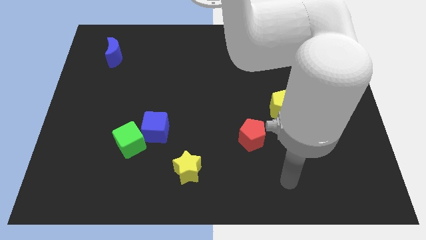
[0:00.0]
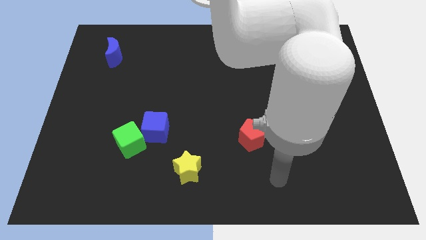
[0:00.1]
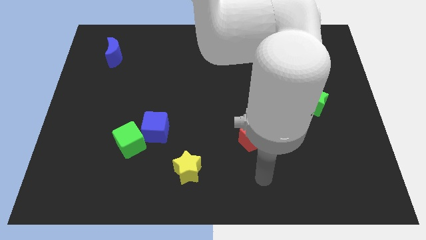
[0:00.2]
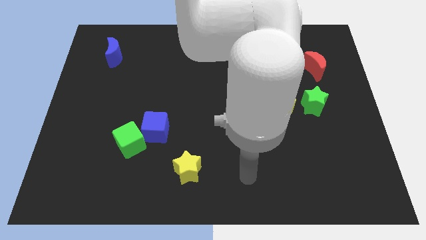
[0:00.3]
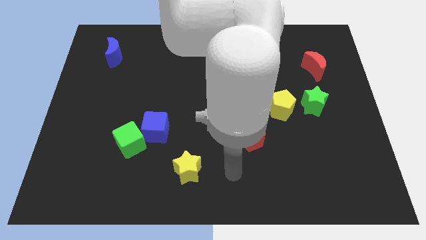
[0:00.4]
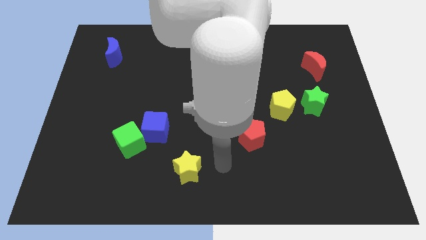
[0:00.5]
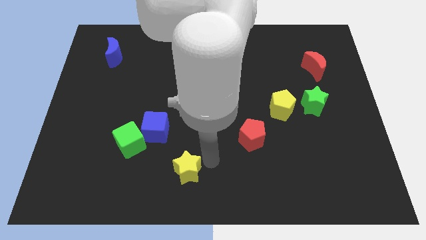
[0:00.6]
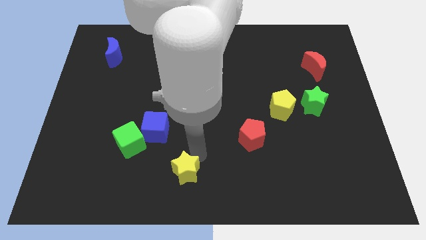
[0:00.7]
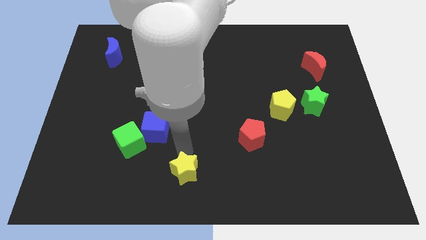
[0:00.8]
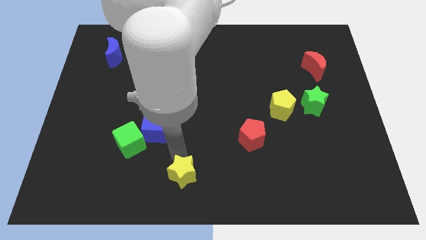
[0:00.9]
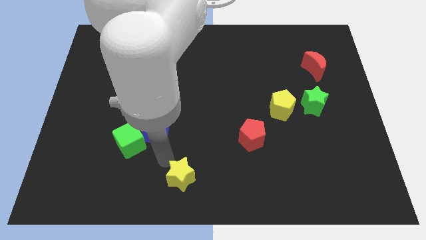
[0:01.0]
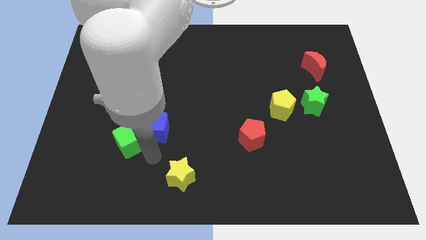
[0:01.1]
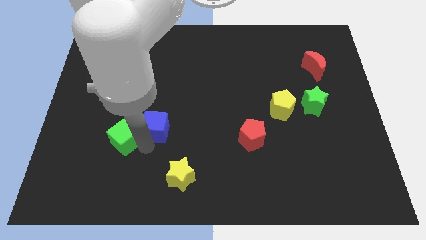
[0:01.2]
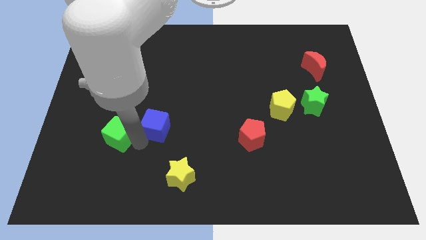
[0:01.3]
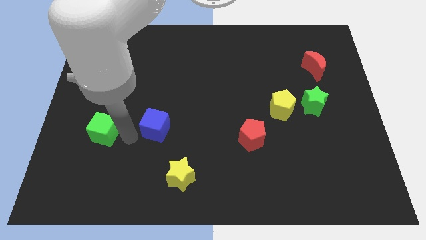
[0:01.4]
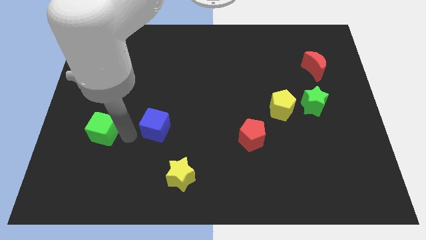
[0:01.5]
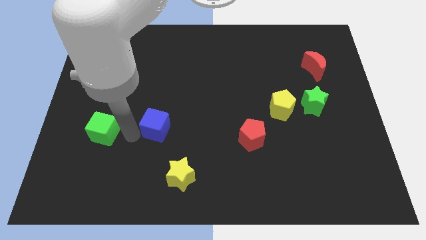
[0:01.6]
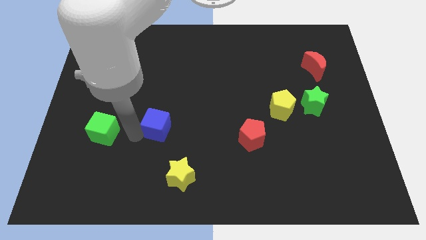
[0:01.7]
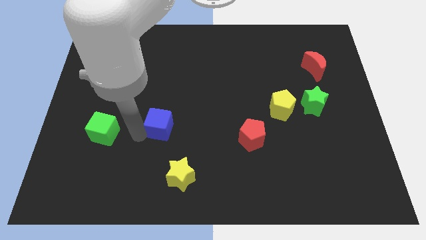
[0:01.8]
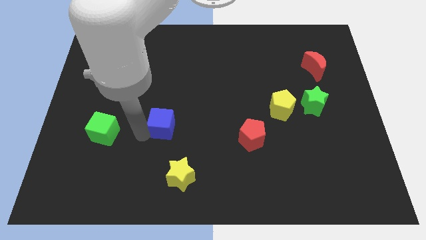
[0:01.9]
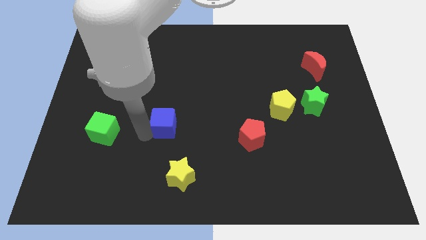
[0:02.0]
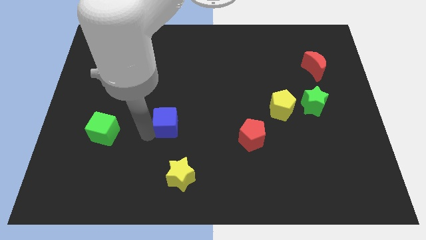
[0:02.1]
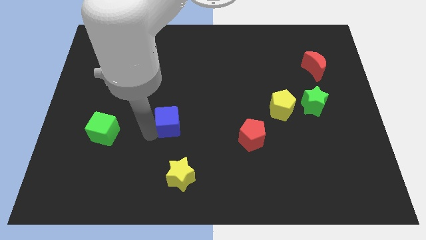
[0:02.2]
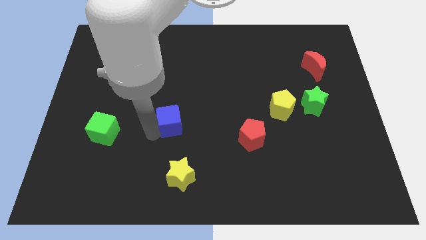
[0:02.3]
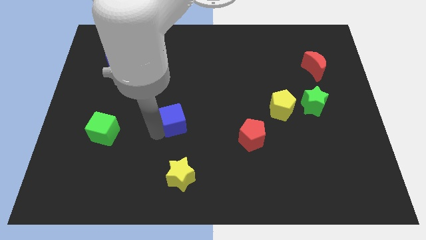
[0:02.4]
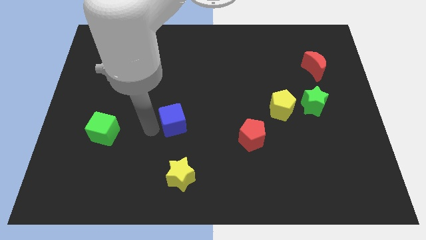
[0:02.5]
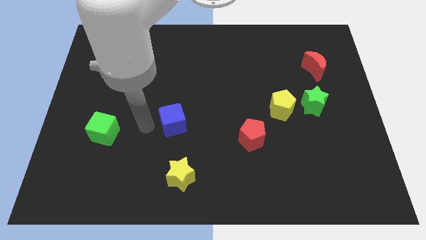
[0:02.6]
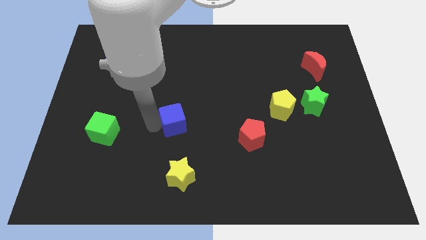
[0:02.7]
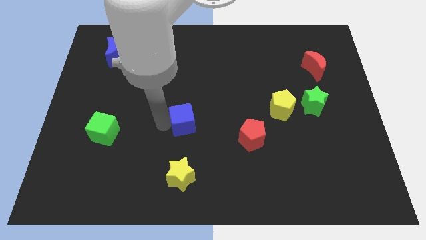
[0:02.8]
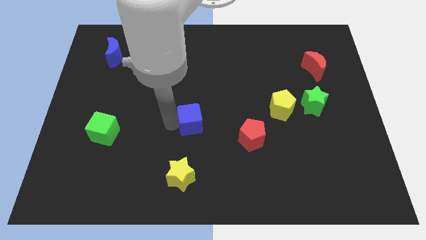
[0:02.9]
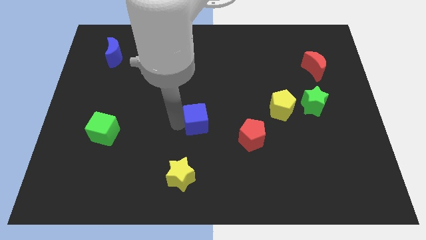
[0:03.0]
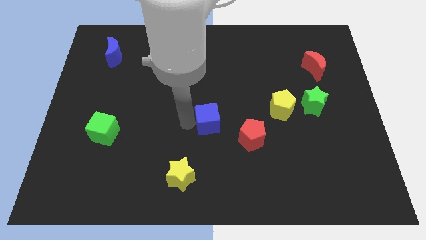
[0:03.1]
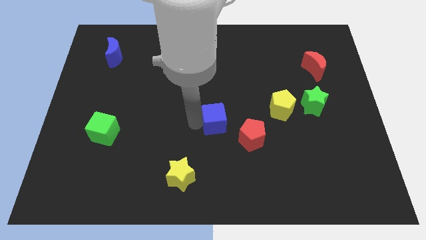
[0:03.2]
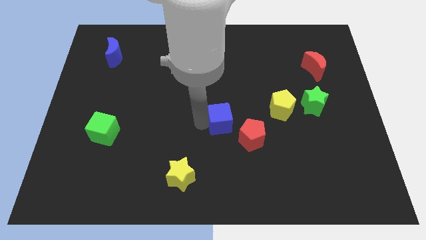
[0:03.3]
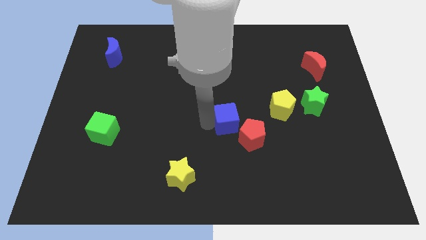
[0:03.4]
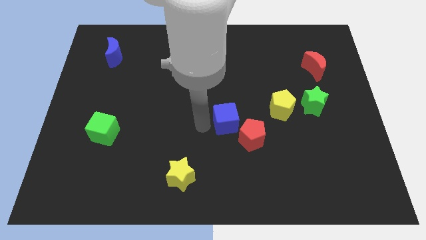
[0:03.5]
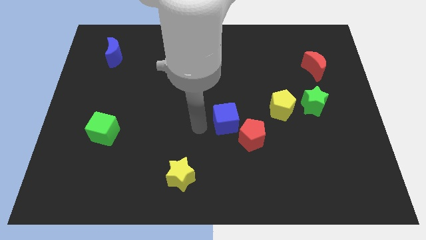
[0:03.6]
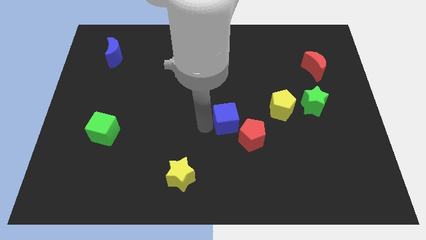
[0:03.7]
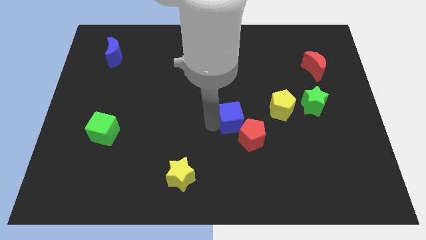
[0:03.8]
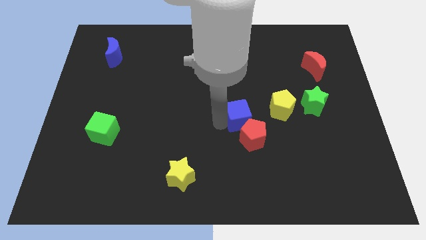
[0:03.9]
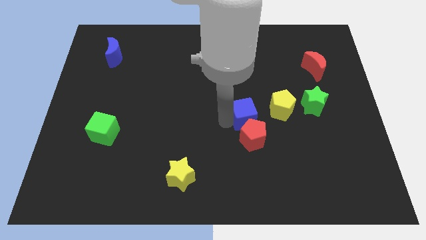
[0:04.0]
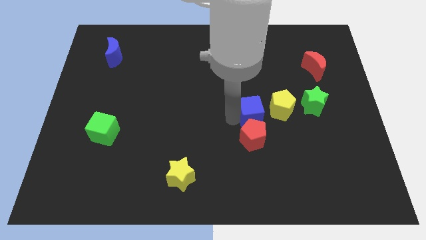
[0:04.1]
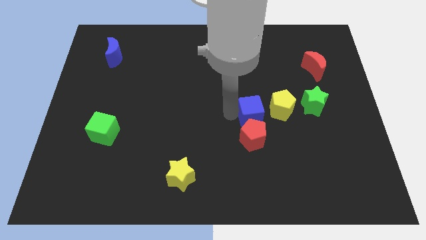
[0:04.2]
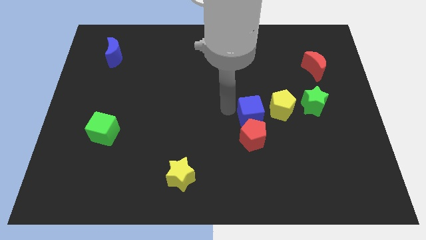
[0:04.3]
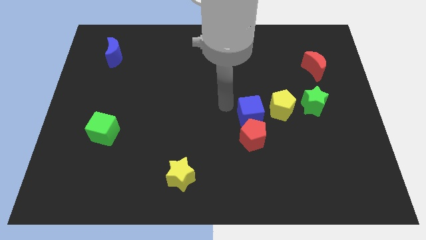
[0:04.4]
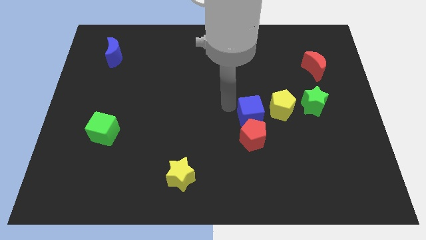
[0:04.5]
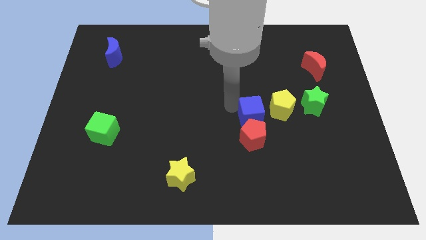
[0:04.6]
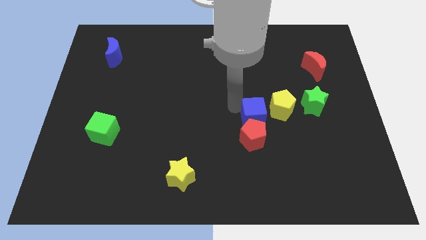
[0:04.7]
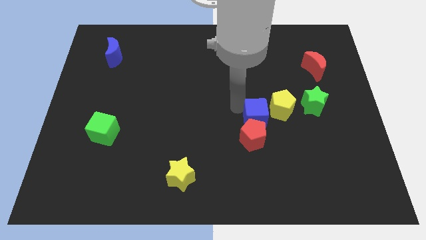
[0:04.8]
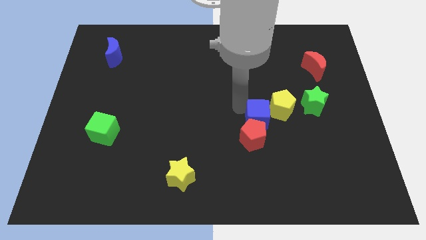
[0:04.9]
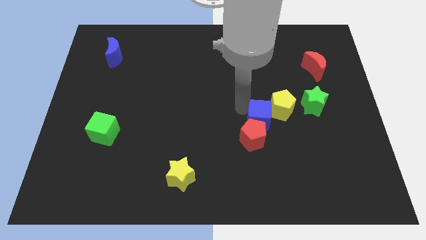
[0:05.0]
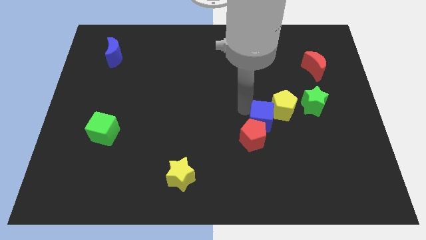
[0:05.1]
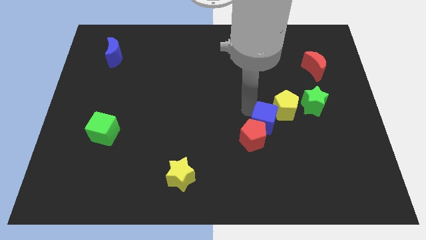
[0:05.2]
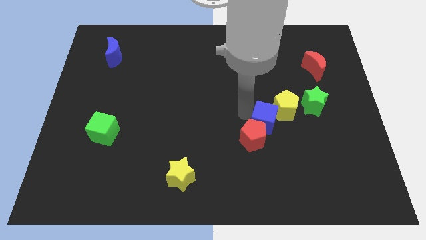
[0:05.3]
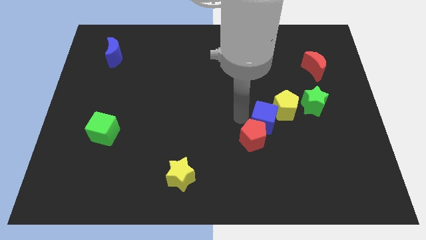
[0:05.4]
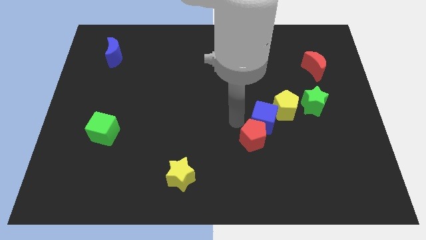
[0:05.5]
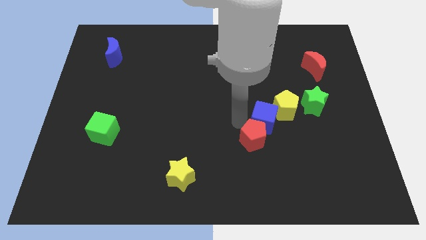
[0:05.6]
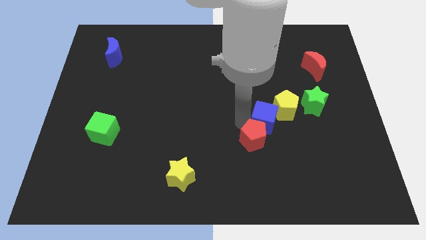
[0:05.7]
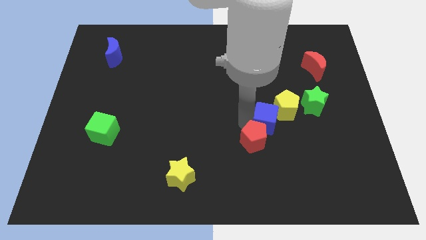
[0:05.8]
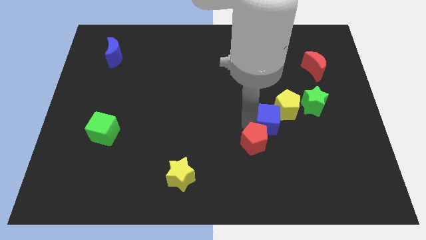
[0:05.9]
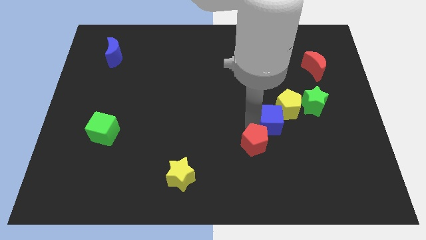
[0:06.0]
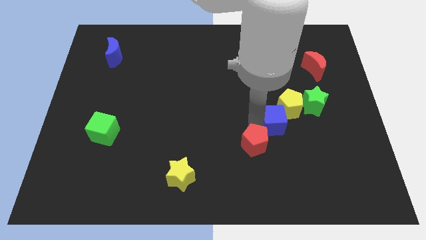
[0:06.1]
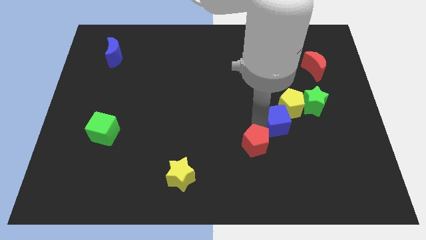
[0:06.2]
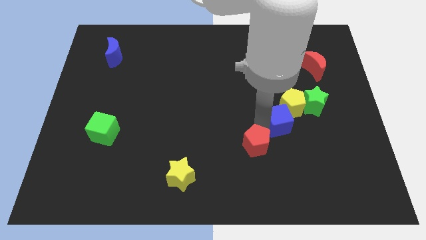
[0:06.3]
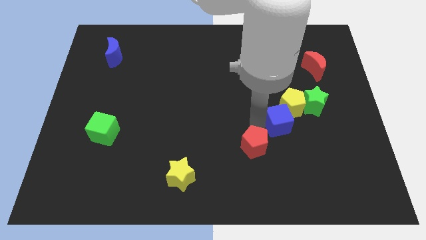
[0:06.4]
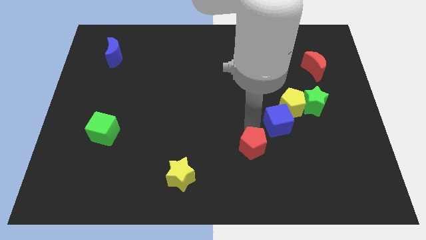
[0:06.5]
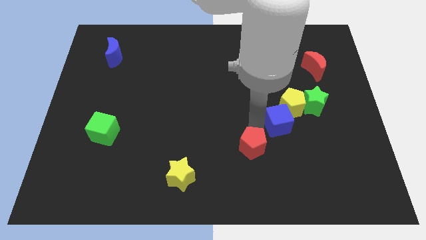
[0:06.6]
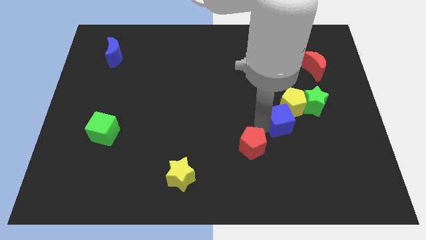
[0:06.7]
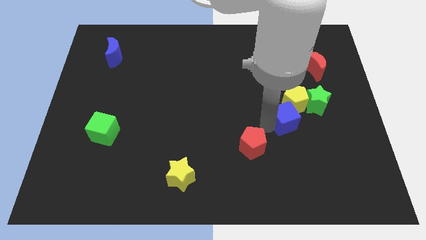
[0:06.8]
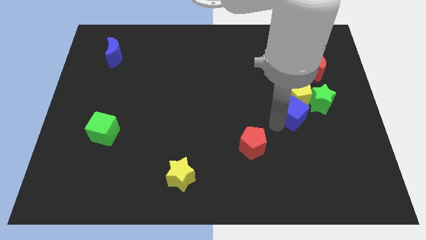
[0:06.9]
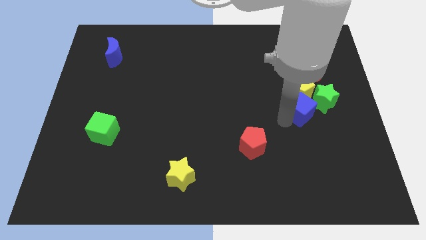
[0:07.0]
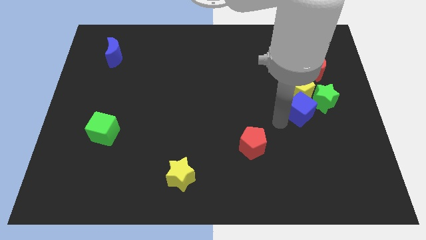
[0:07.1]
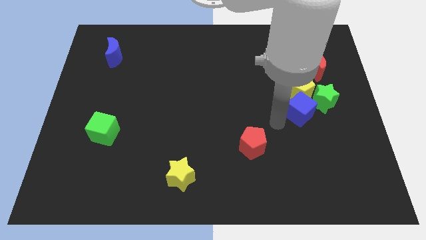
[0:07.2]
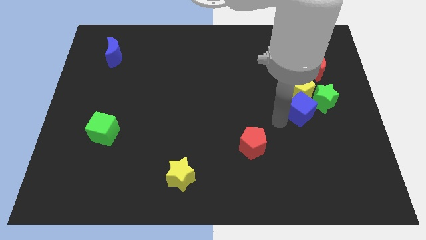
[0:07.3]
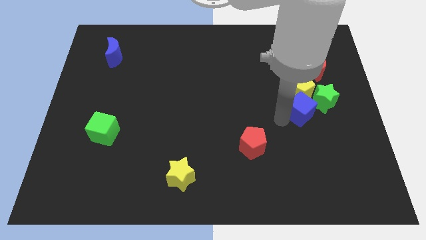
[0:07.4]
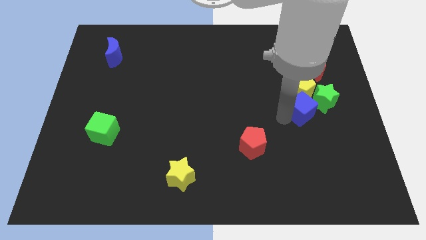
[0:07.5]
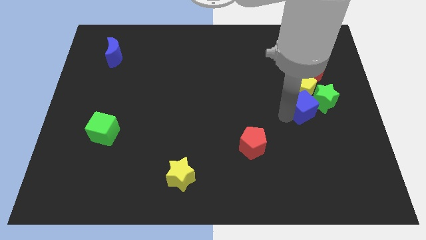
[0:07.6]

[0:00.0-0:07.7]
push the blue cube to the green star
